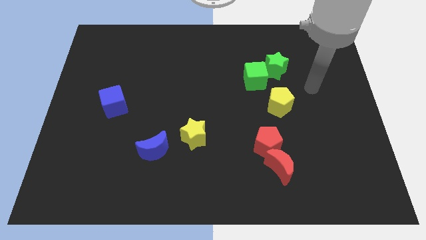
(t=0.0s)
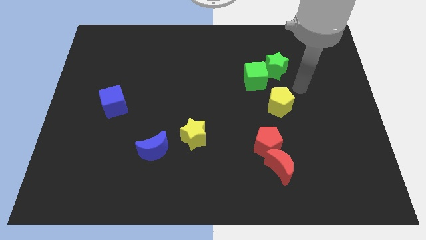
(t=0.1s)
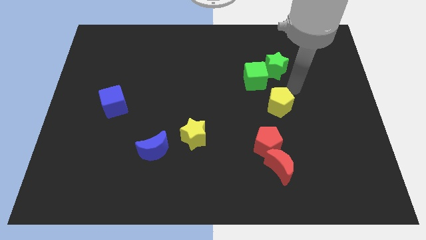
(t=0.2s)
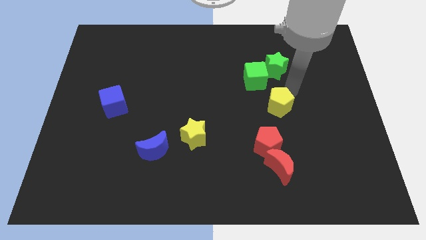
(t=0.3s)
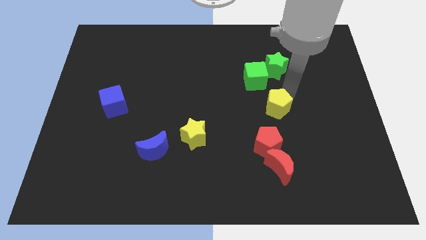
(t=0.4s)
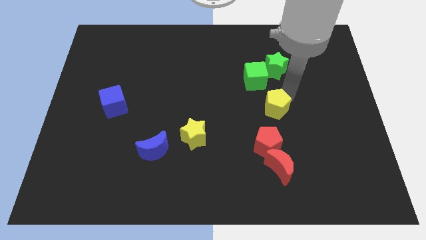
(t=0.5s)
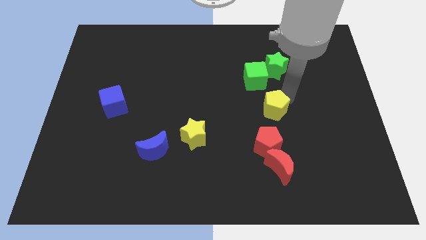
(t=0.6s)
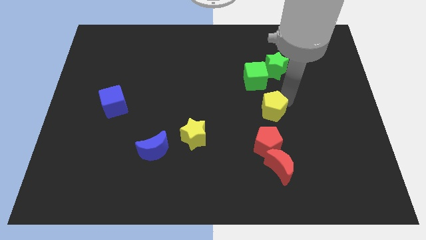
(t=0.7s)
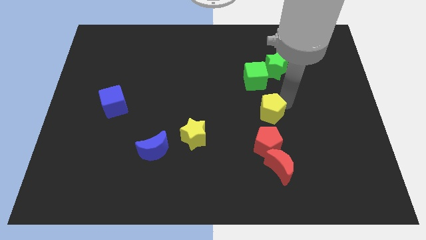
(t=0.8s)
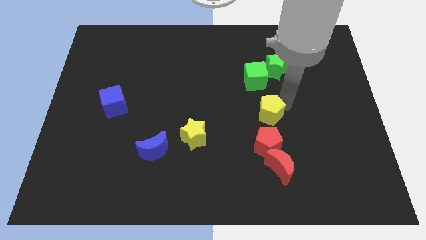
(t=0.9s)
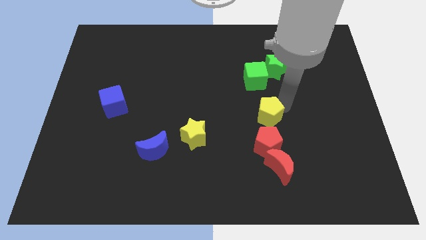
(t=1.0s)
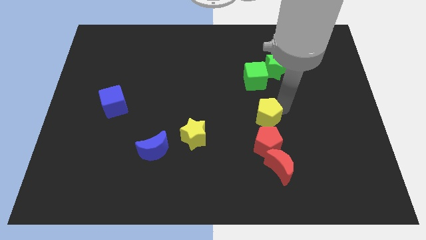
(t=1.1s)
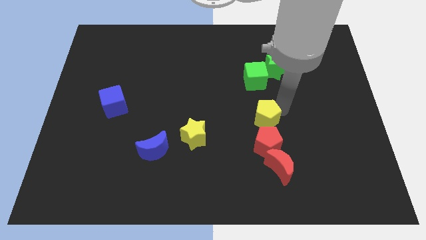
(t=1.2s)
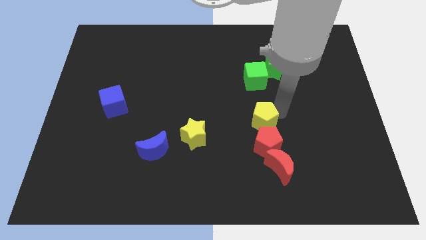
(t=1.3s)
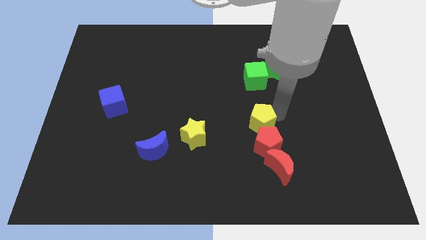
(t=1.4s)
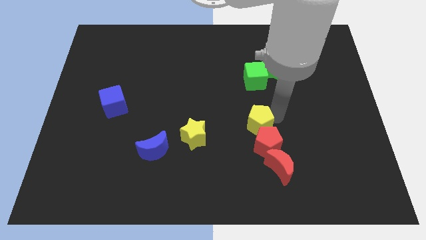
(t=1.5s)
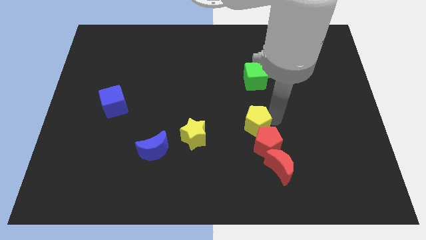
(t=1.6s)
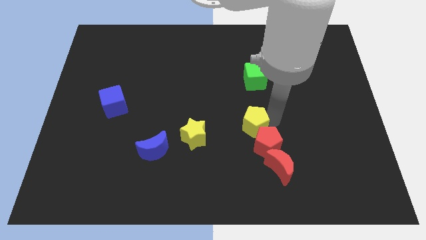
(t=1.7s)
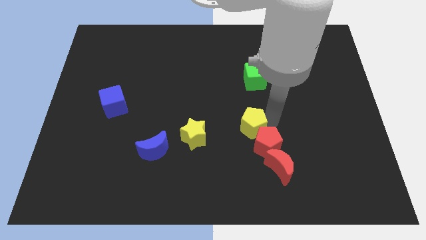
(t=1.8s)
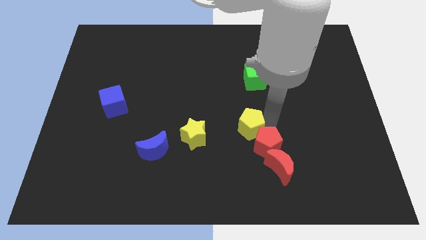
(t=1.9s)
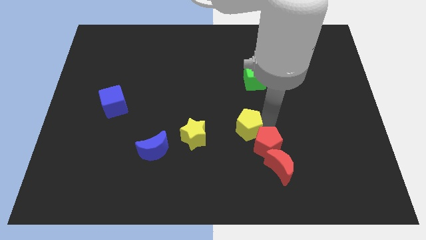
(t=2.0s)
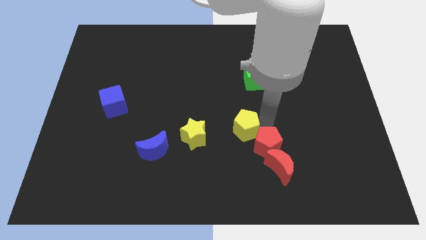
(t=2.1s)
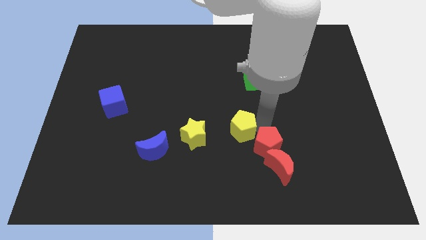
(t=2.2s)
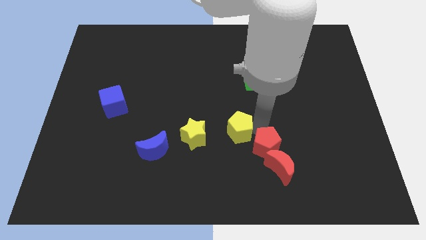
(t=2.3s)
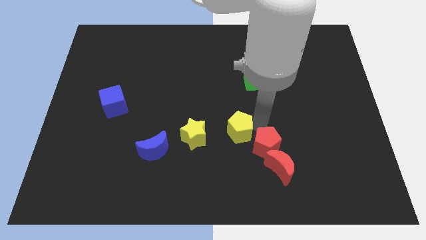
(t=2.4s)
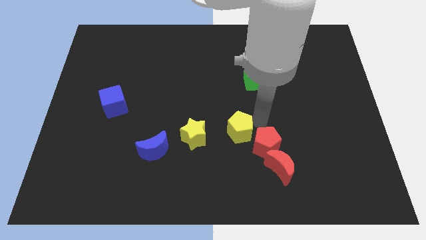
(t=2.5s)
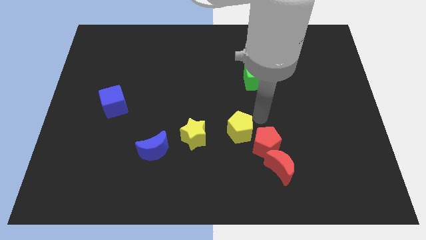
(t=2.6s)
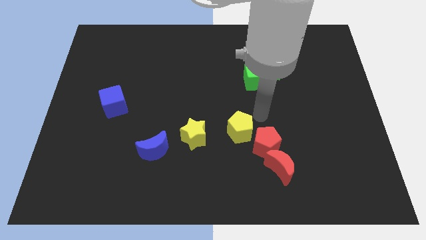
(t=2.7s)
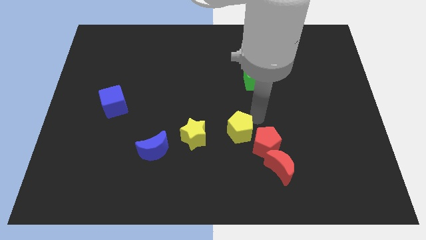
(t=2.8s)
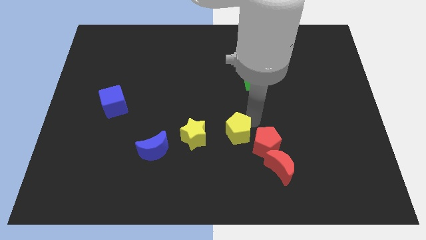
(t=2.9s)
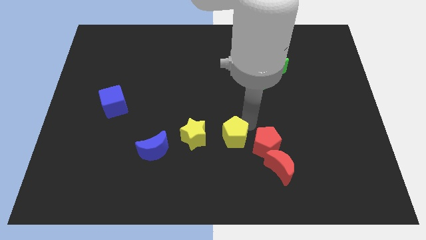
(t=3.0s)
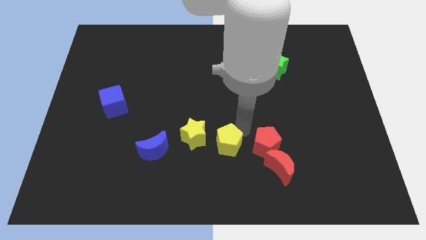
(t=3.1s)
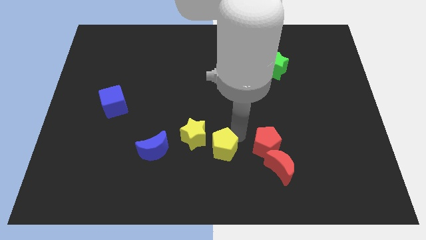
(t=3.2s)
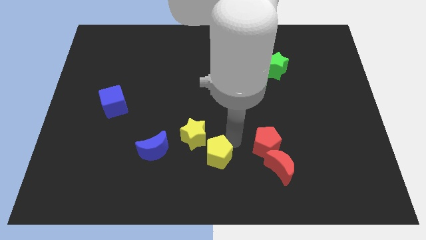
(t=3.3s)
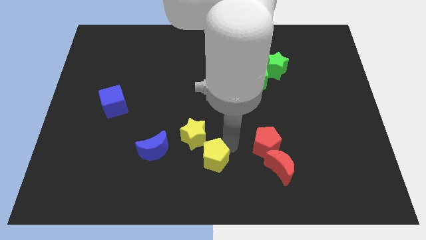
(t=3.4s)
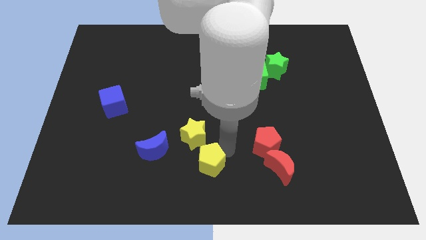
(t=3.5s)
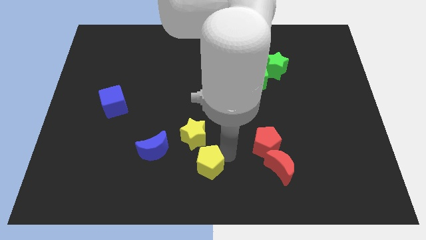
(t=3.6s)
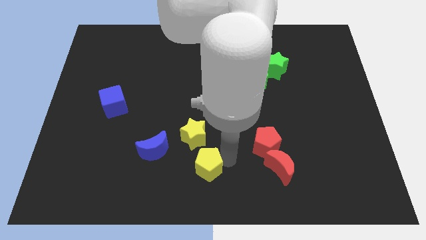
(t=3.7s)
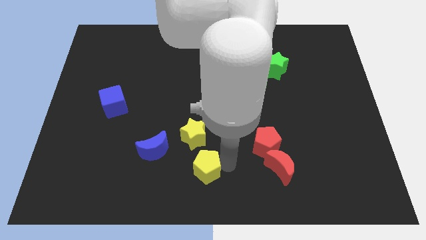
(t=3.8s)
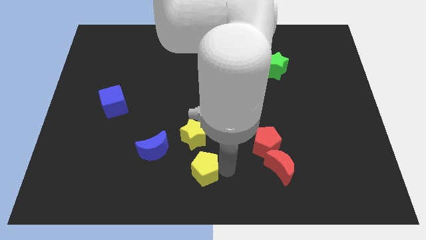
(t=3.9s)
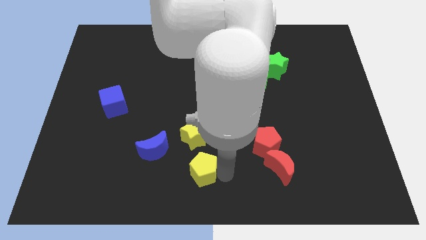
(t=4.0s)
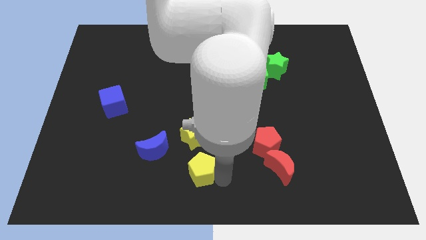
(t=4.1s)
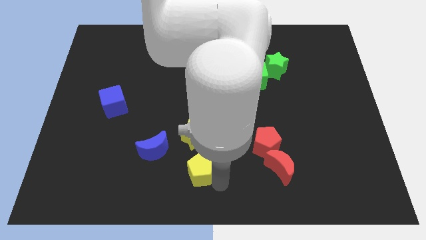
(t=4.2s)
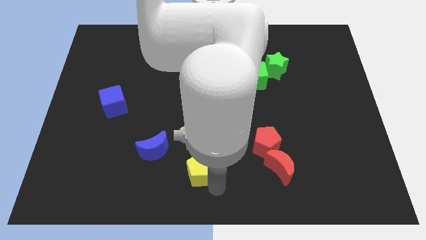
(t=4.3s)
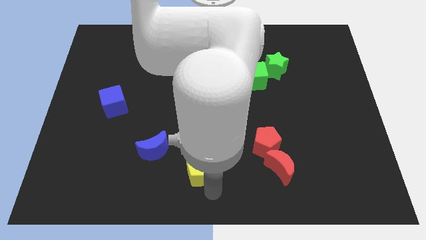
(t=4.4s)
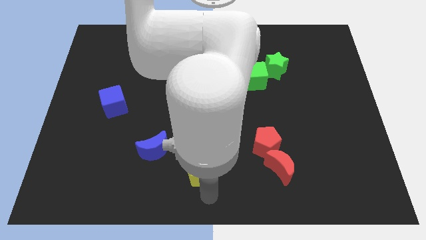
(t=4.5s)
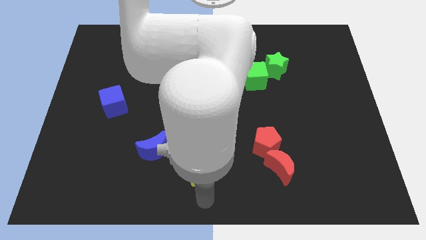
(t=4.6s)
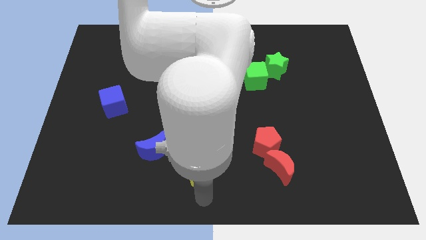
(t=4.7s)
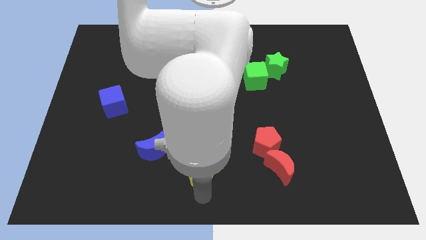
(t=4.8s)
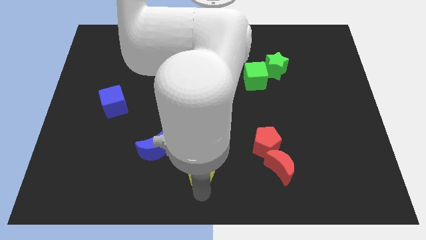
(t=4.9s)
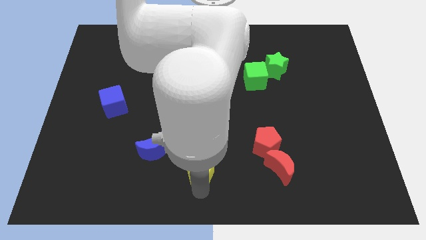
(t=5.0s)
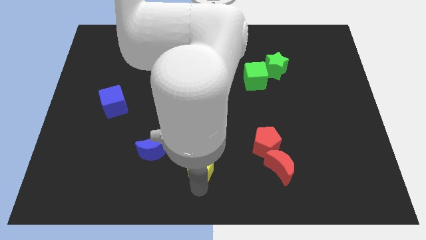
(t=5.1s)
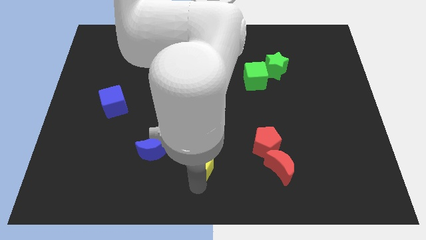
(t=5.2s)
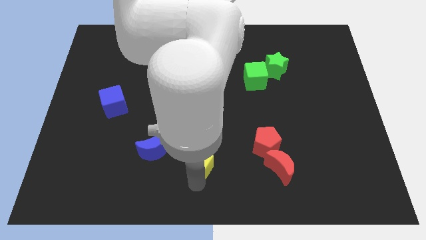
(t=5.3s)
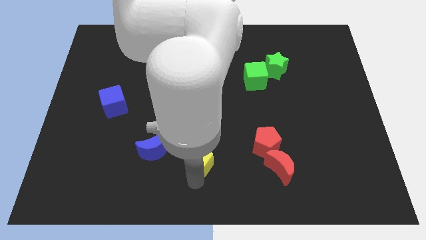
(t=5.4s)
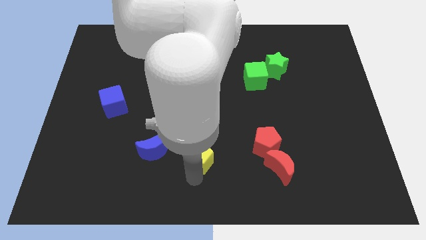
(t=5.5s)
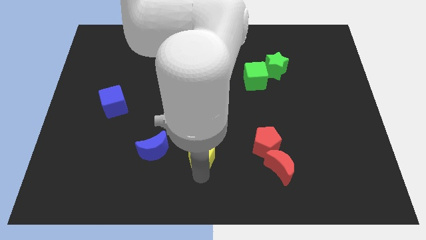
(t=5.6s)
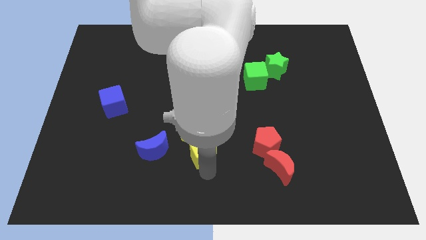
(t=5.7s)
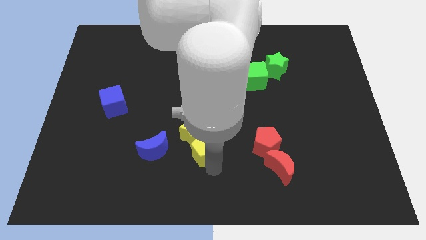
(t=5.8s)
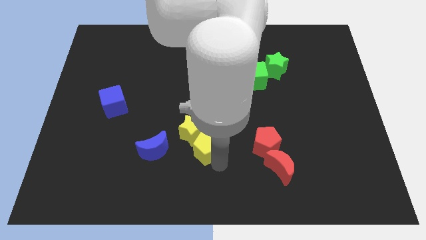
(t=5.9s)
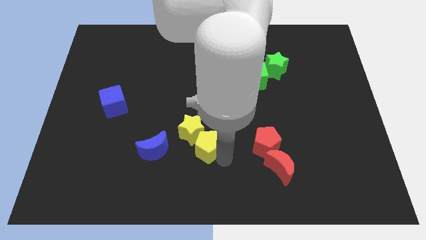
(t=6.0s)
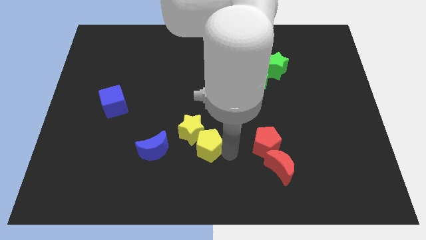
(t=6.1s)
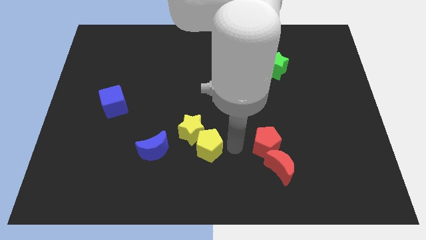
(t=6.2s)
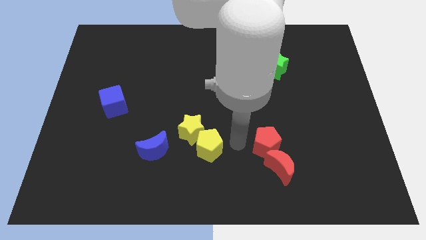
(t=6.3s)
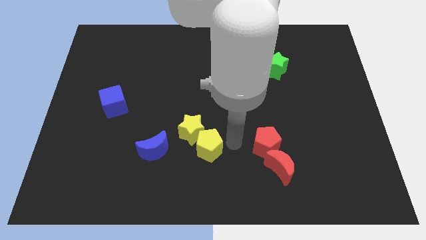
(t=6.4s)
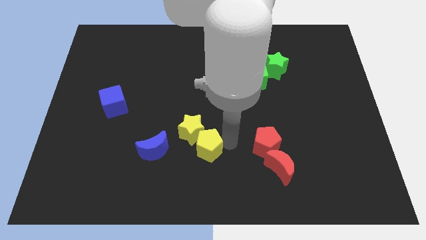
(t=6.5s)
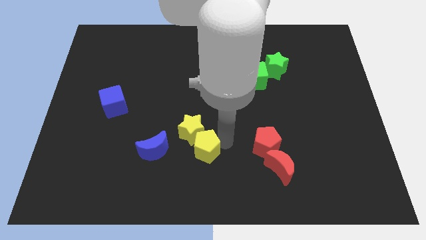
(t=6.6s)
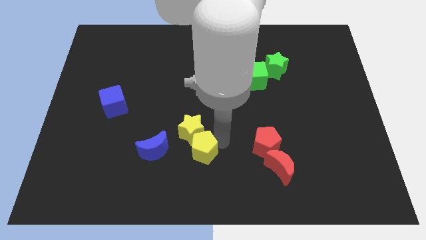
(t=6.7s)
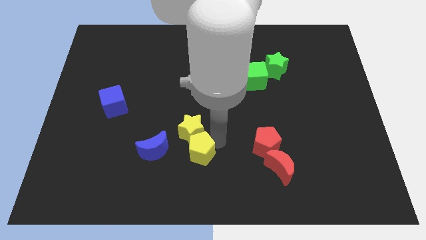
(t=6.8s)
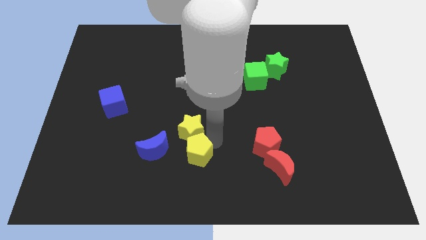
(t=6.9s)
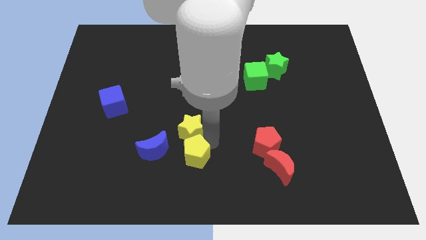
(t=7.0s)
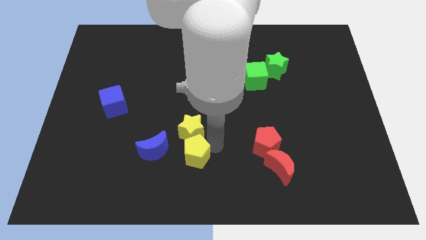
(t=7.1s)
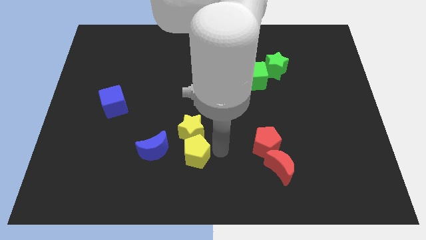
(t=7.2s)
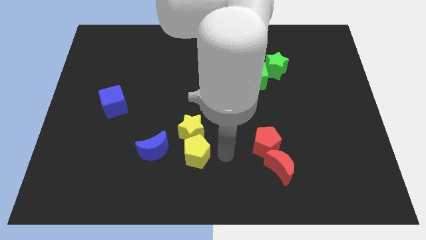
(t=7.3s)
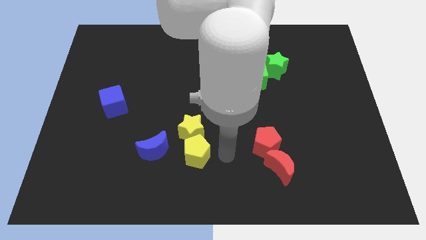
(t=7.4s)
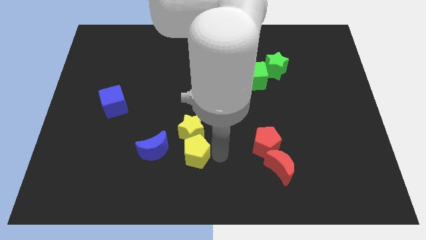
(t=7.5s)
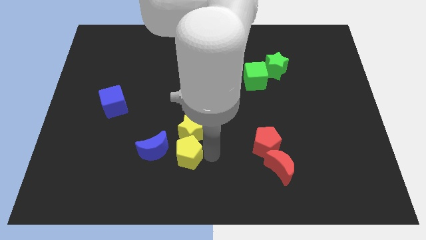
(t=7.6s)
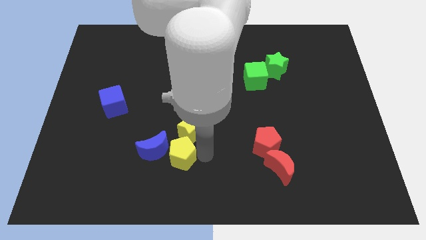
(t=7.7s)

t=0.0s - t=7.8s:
put the yellow pentagon towards the blue moon
